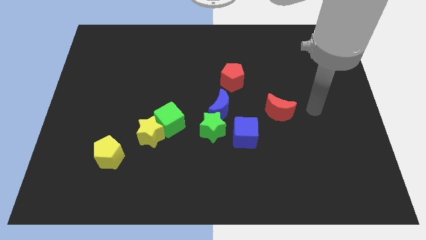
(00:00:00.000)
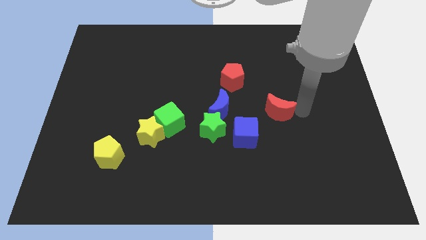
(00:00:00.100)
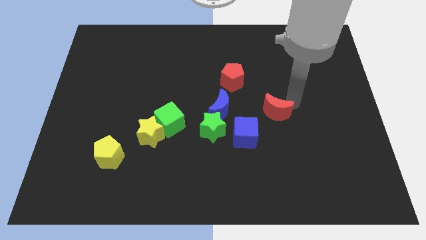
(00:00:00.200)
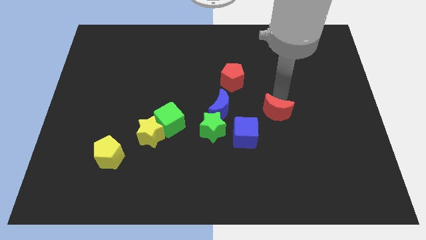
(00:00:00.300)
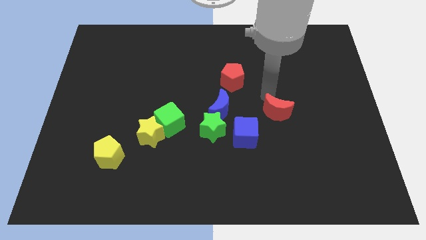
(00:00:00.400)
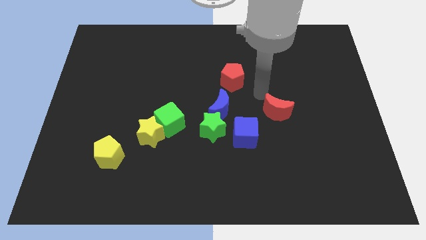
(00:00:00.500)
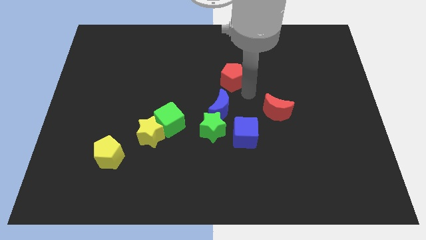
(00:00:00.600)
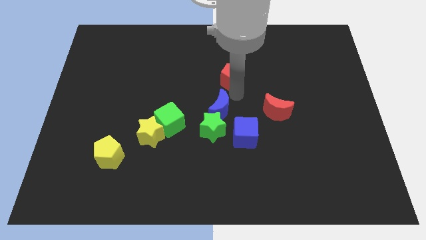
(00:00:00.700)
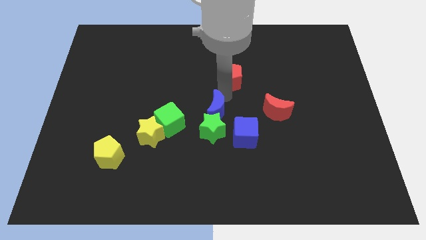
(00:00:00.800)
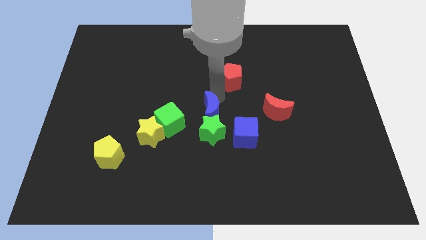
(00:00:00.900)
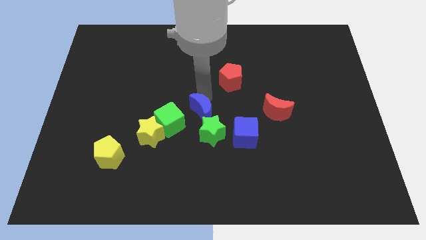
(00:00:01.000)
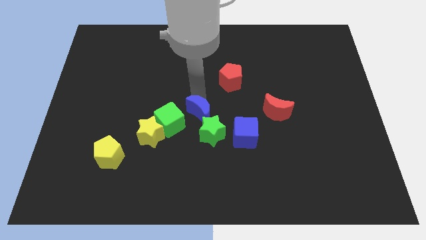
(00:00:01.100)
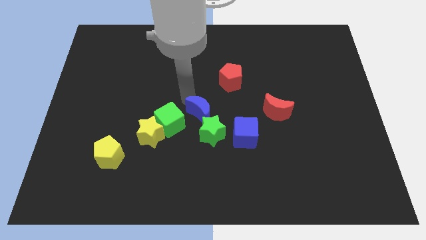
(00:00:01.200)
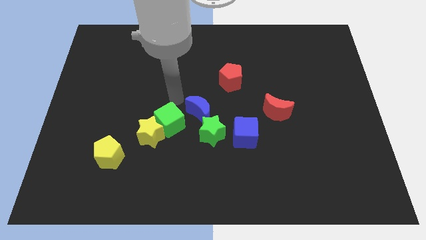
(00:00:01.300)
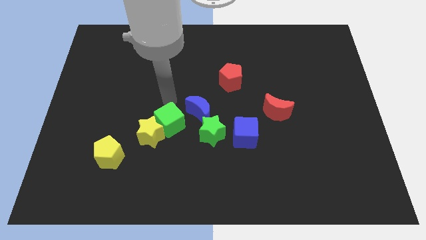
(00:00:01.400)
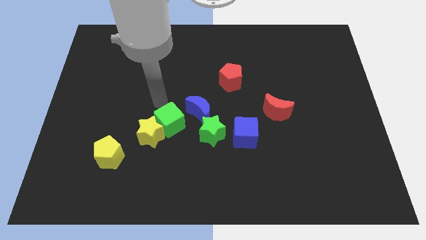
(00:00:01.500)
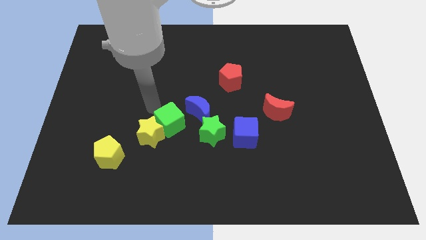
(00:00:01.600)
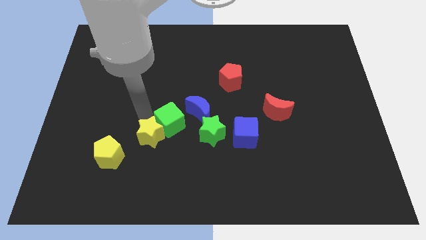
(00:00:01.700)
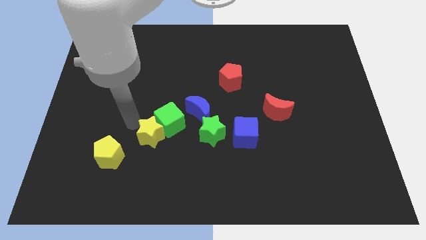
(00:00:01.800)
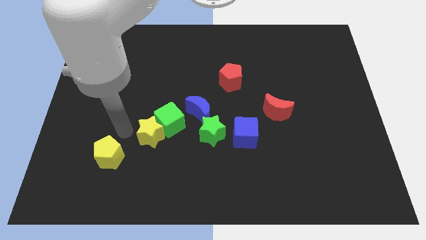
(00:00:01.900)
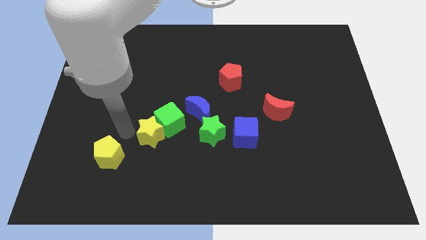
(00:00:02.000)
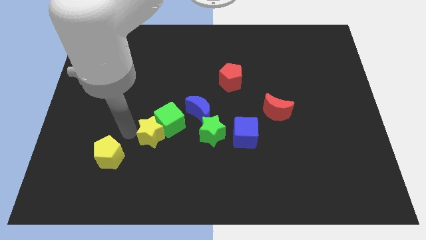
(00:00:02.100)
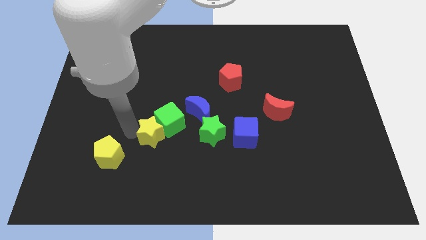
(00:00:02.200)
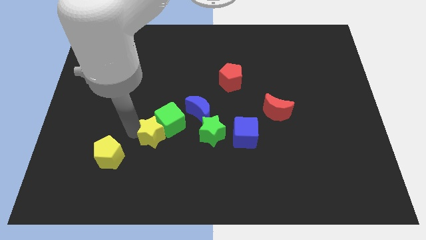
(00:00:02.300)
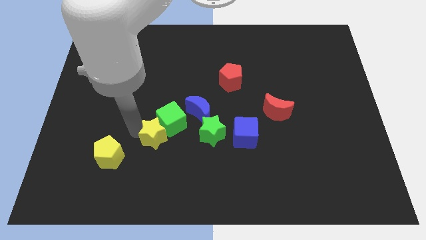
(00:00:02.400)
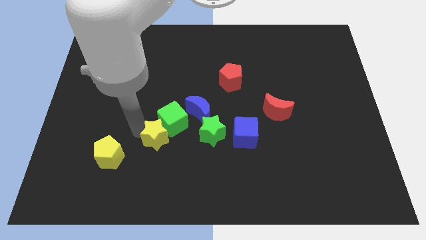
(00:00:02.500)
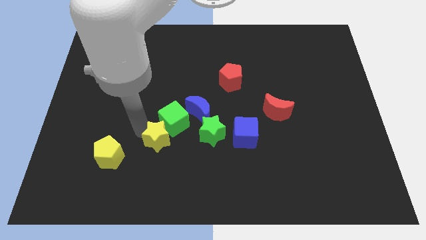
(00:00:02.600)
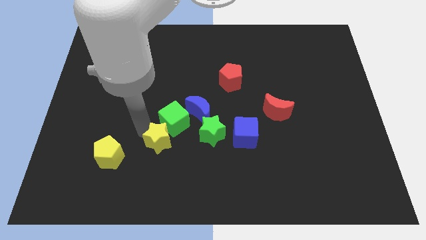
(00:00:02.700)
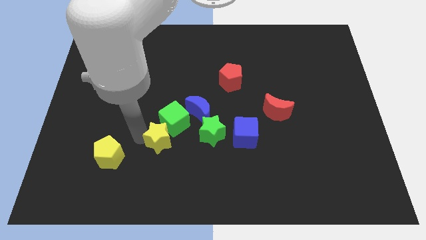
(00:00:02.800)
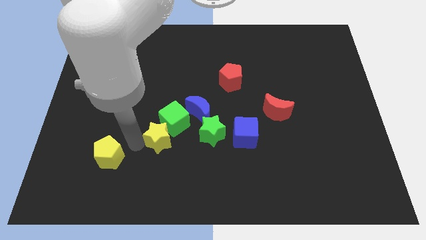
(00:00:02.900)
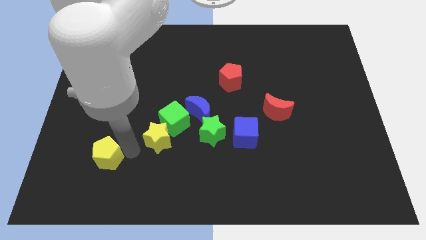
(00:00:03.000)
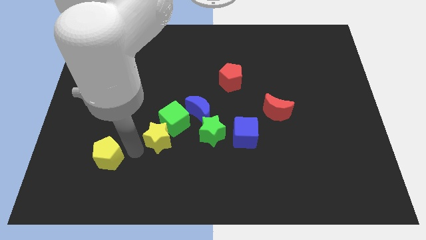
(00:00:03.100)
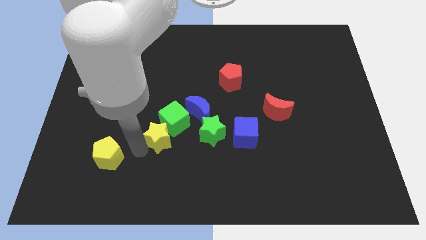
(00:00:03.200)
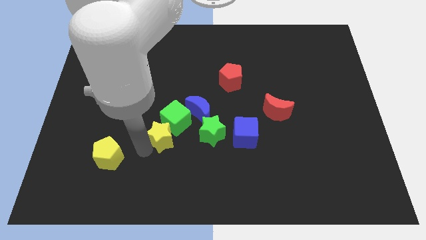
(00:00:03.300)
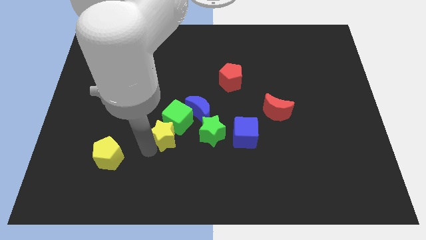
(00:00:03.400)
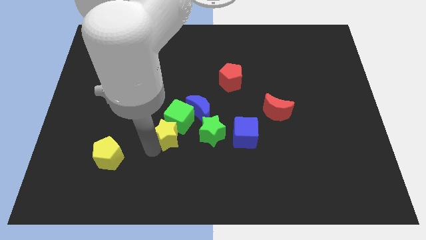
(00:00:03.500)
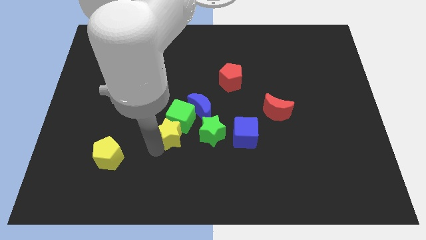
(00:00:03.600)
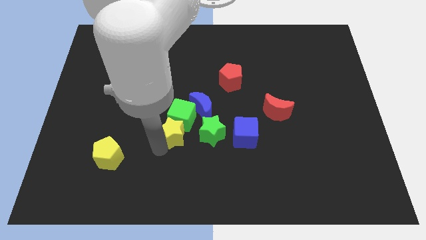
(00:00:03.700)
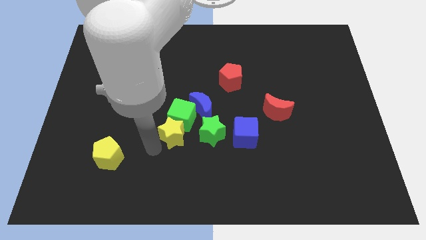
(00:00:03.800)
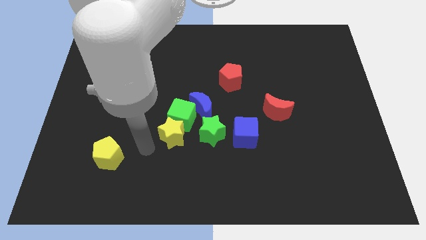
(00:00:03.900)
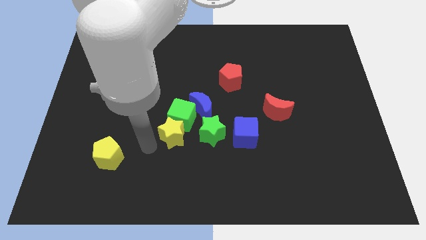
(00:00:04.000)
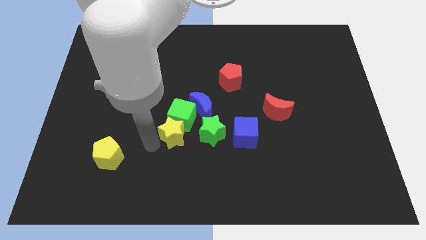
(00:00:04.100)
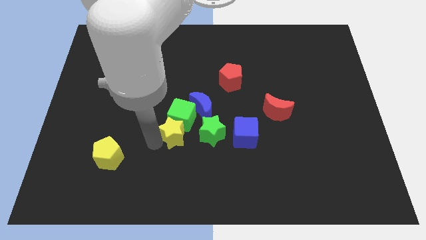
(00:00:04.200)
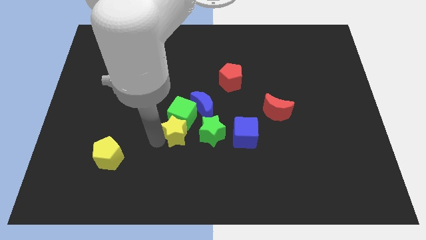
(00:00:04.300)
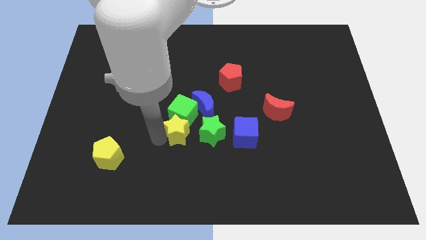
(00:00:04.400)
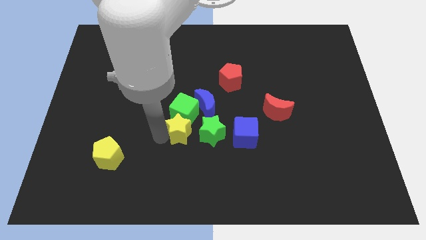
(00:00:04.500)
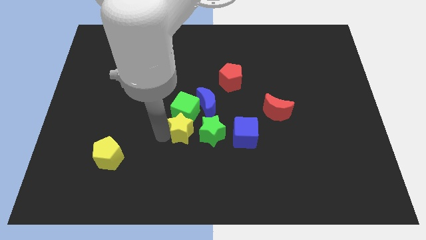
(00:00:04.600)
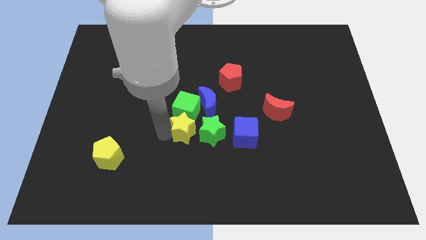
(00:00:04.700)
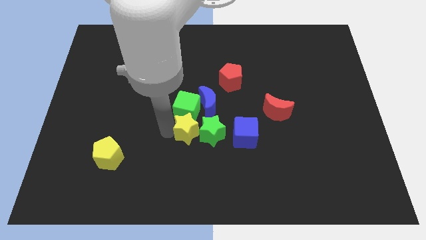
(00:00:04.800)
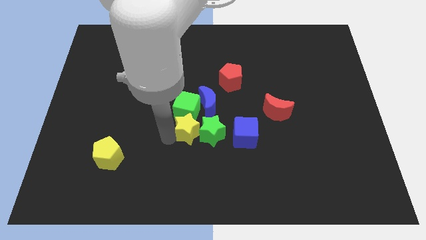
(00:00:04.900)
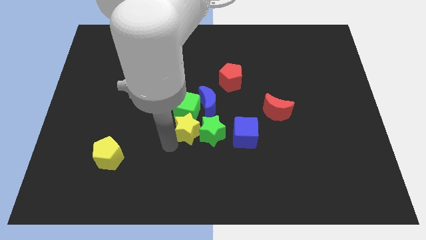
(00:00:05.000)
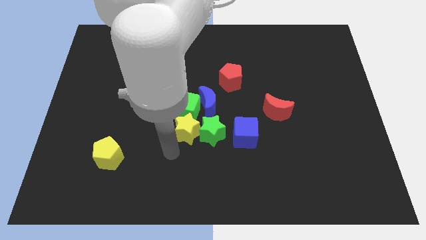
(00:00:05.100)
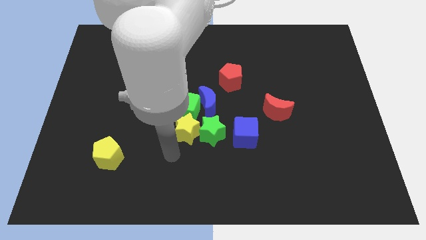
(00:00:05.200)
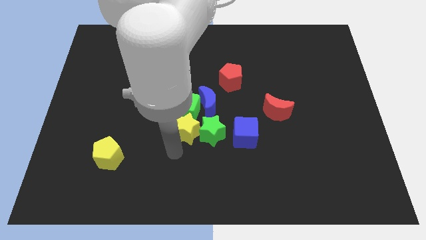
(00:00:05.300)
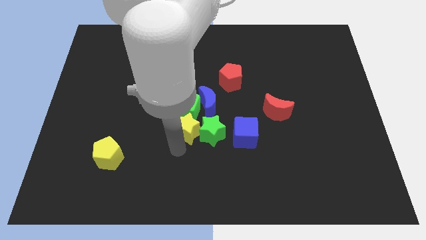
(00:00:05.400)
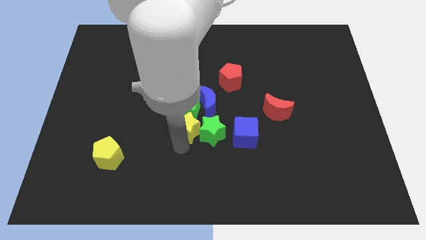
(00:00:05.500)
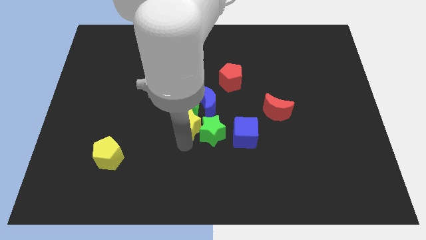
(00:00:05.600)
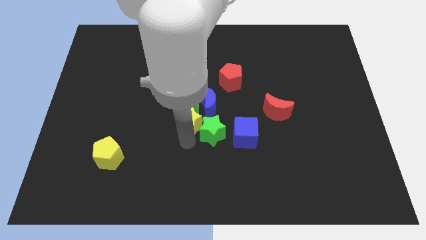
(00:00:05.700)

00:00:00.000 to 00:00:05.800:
slide the yellow star upwards and then to the right a bit

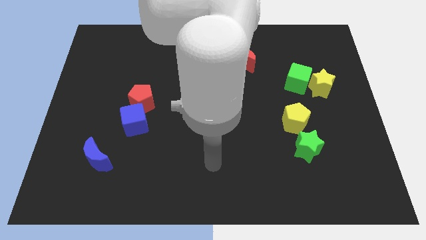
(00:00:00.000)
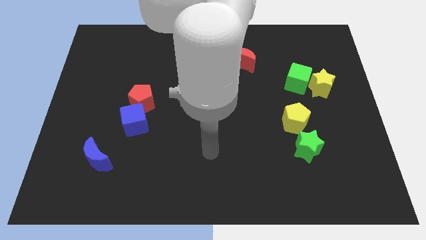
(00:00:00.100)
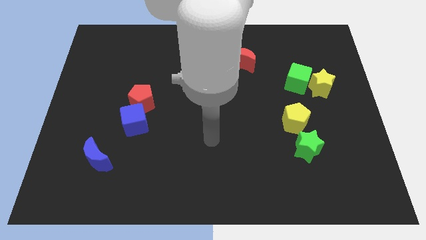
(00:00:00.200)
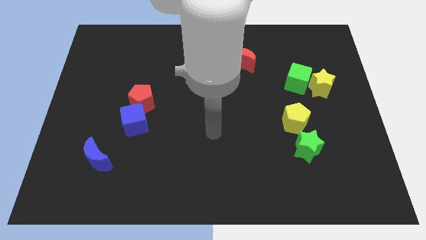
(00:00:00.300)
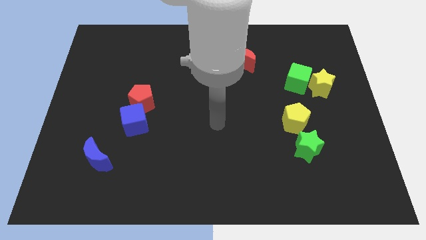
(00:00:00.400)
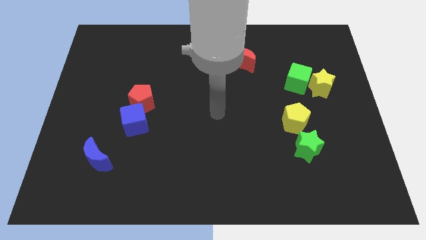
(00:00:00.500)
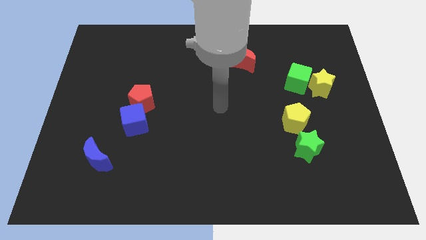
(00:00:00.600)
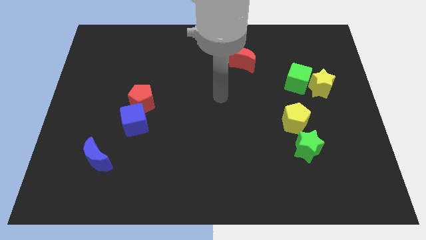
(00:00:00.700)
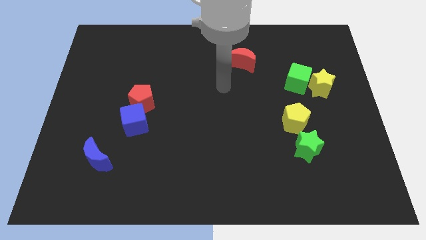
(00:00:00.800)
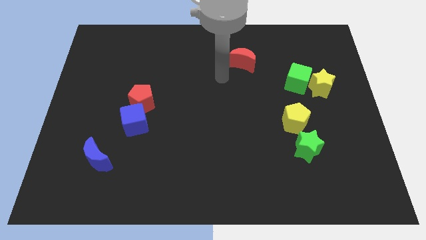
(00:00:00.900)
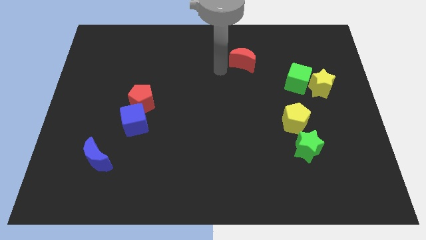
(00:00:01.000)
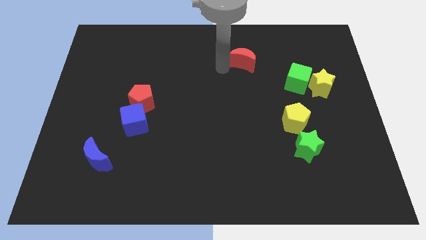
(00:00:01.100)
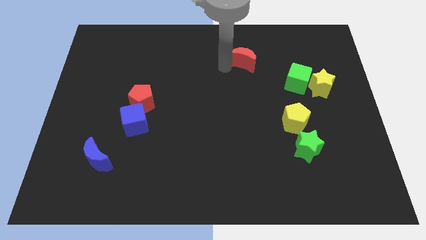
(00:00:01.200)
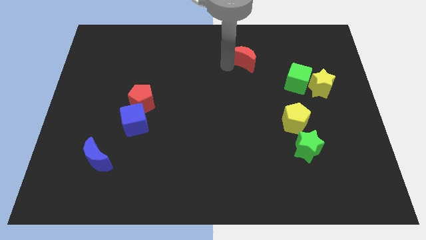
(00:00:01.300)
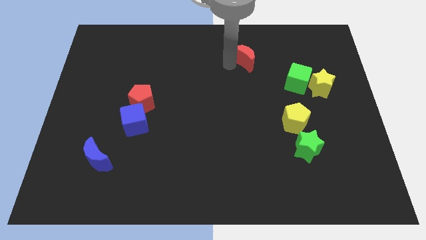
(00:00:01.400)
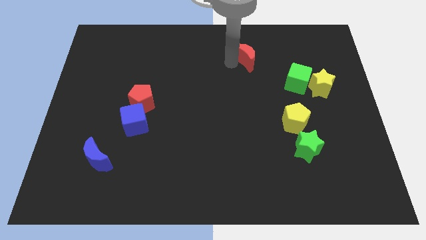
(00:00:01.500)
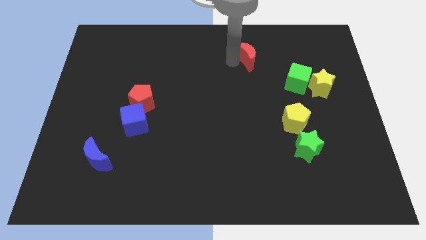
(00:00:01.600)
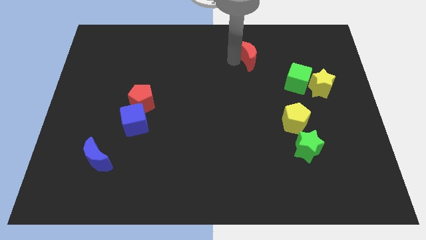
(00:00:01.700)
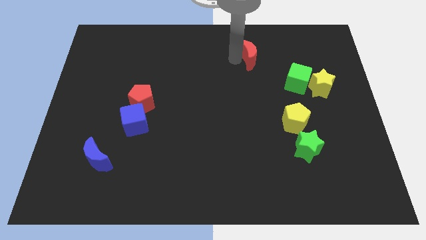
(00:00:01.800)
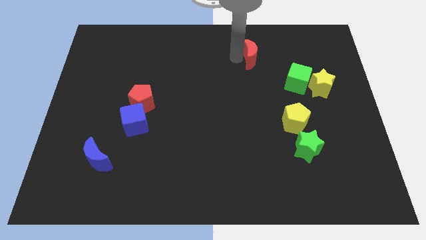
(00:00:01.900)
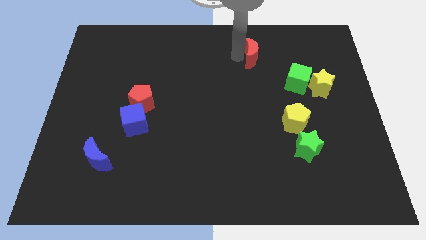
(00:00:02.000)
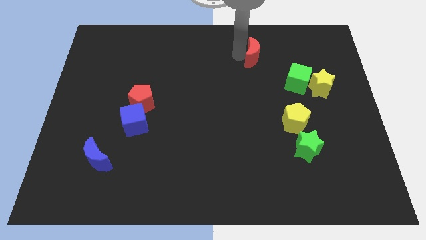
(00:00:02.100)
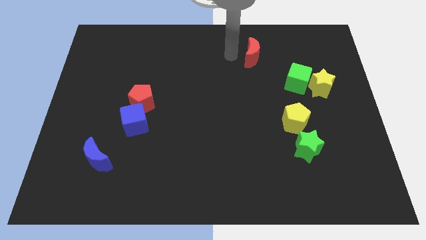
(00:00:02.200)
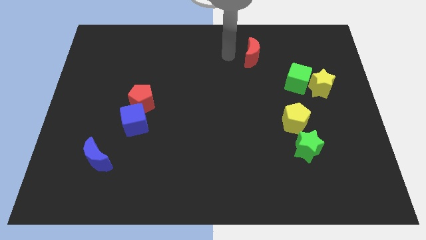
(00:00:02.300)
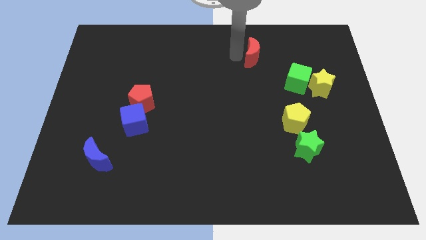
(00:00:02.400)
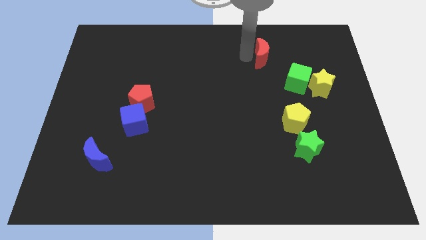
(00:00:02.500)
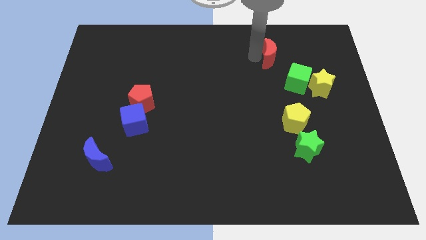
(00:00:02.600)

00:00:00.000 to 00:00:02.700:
slightly slide the red moon to the right
